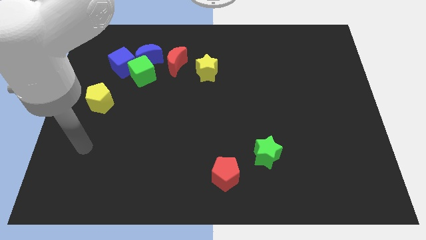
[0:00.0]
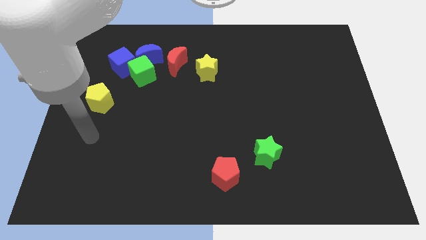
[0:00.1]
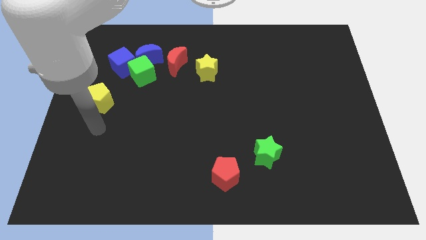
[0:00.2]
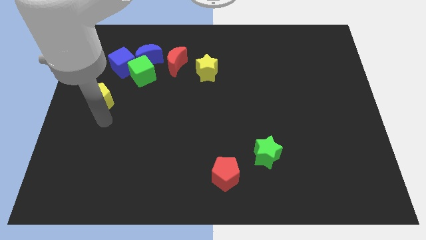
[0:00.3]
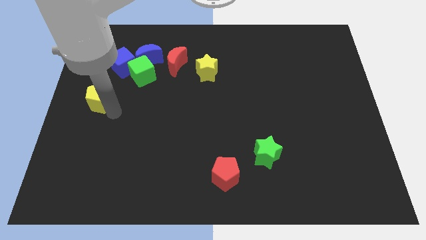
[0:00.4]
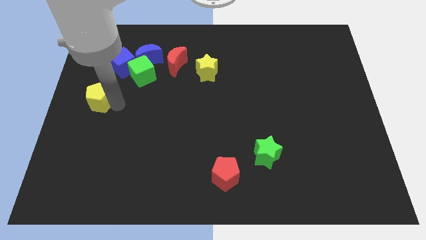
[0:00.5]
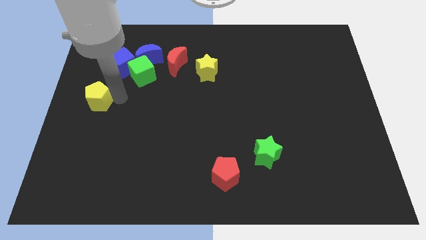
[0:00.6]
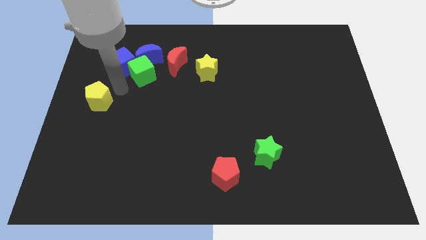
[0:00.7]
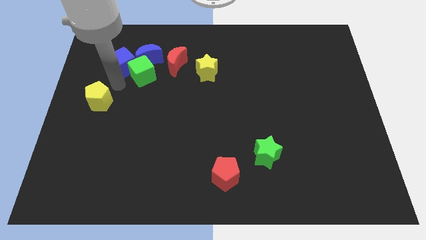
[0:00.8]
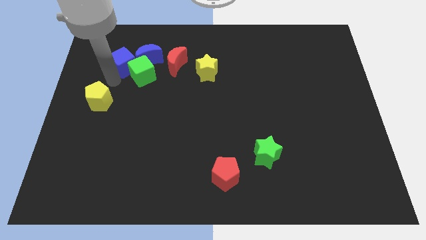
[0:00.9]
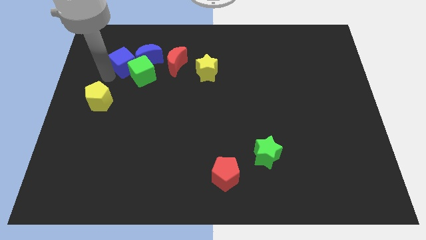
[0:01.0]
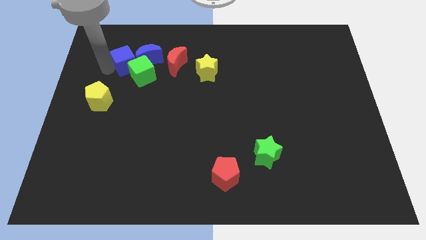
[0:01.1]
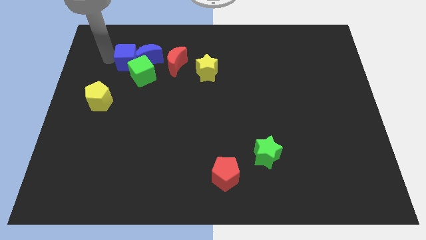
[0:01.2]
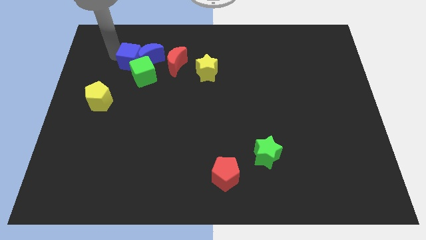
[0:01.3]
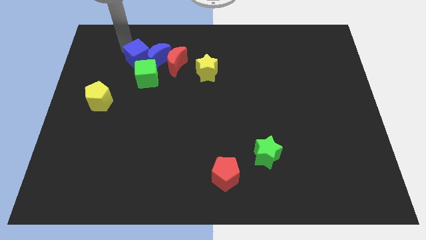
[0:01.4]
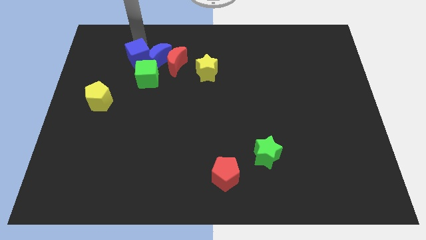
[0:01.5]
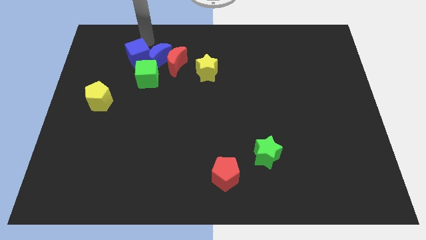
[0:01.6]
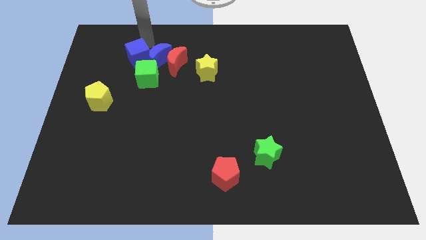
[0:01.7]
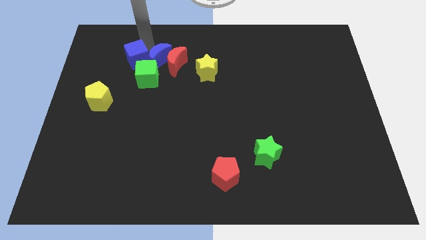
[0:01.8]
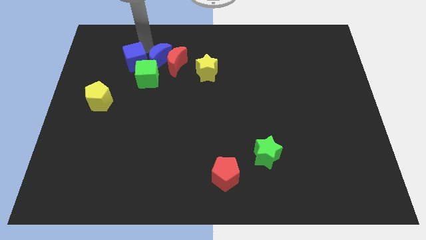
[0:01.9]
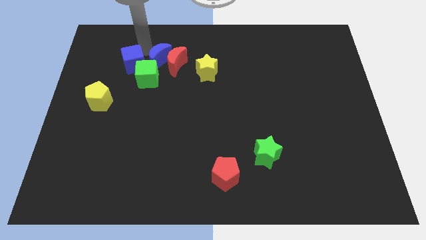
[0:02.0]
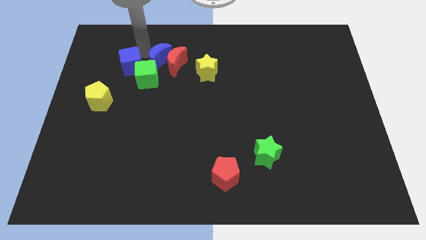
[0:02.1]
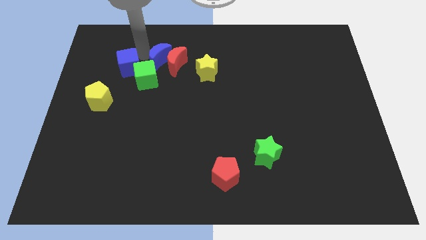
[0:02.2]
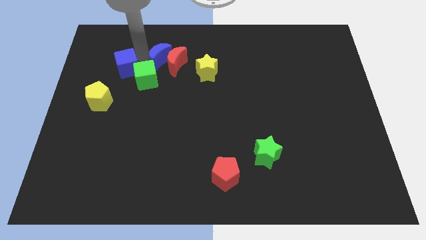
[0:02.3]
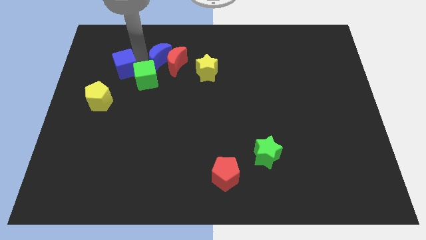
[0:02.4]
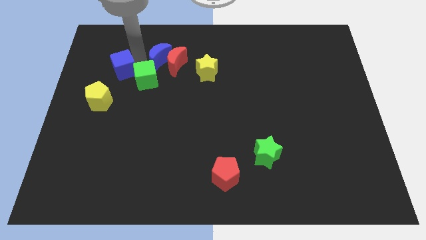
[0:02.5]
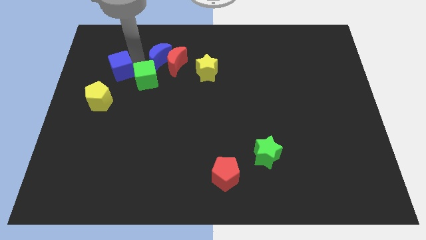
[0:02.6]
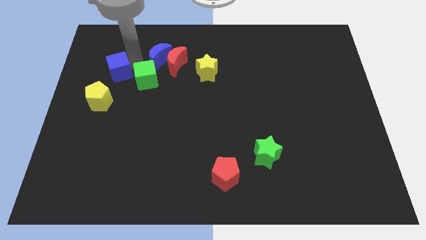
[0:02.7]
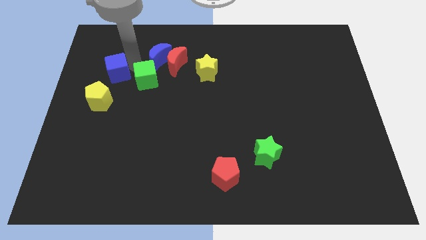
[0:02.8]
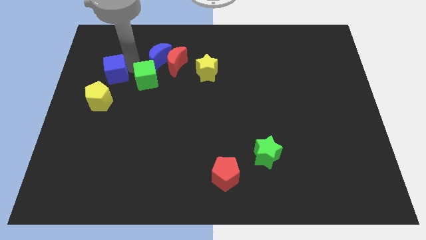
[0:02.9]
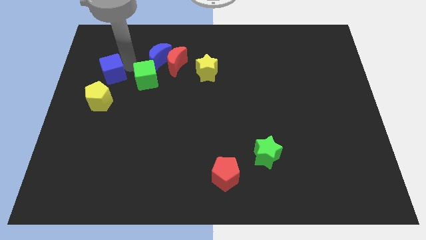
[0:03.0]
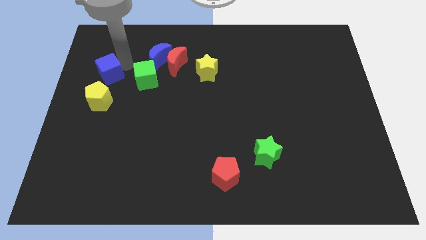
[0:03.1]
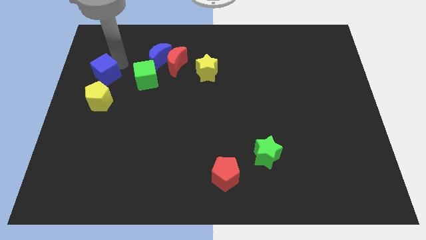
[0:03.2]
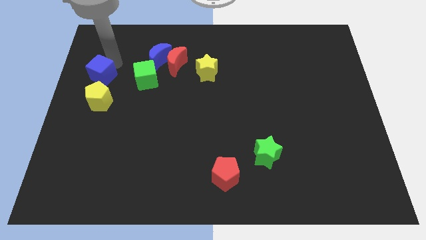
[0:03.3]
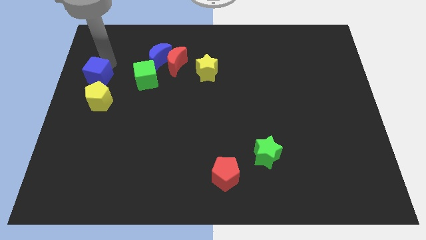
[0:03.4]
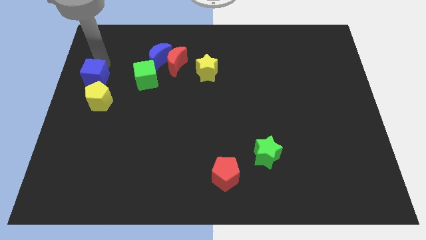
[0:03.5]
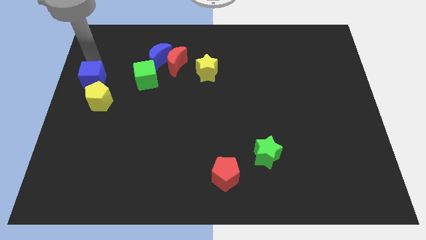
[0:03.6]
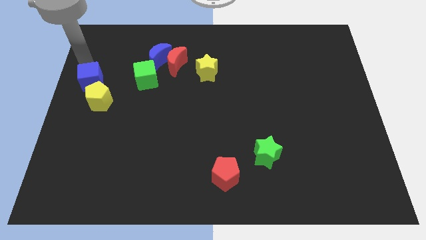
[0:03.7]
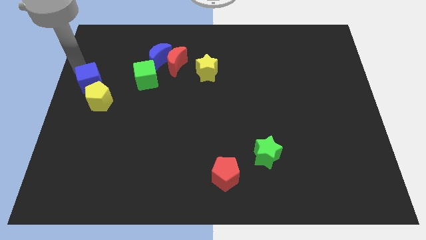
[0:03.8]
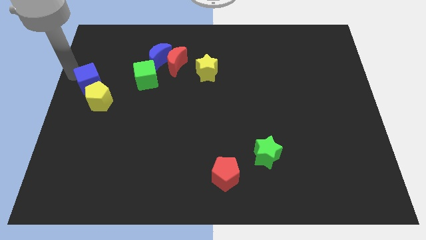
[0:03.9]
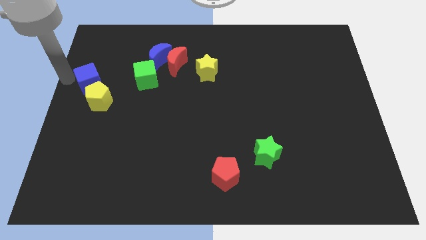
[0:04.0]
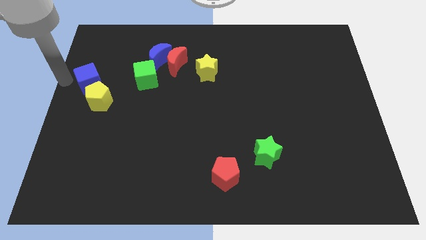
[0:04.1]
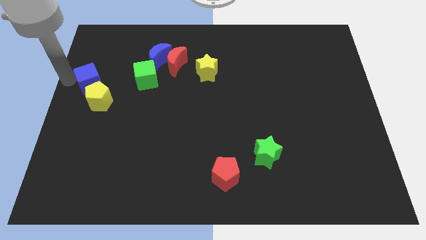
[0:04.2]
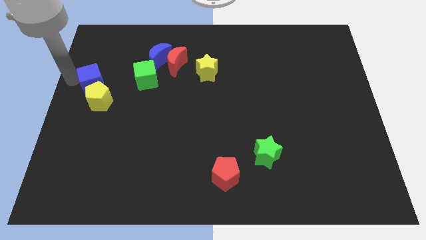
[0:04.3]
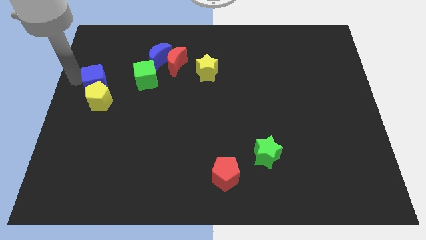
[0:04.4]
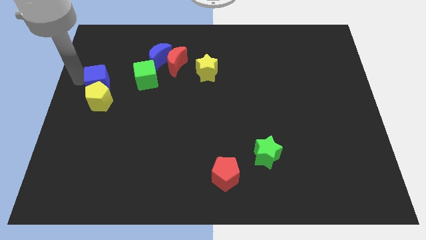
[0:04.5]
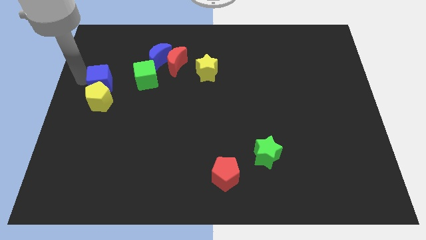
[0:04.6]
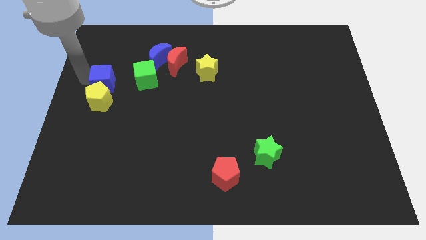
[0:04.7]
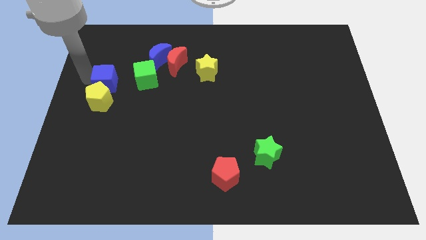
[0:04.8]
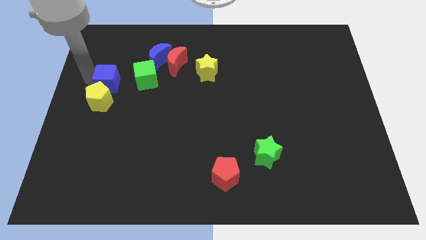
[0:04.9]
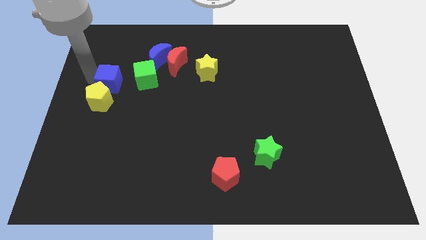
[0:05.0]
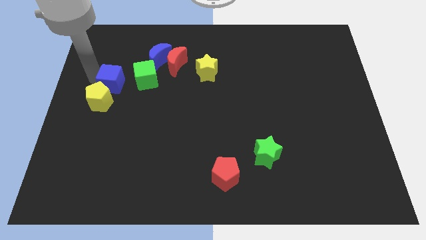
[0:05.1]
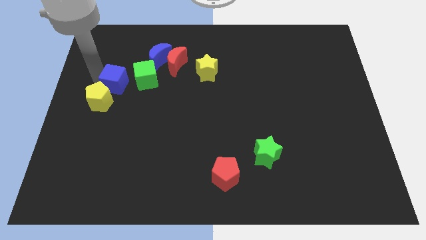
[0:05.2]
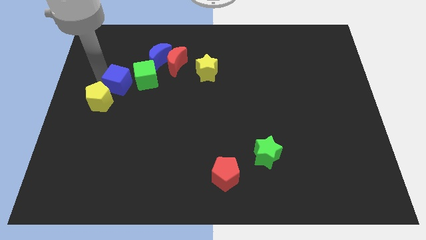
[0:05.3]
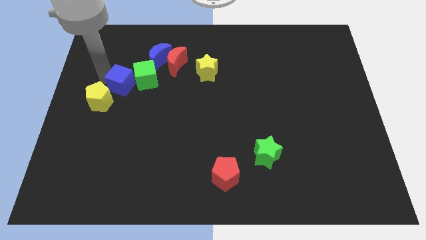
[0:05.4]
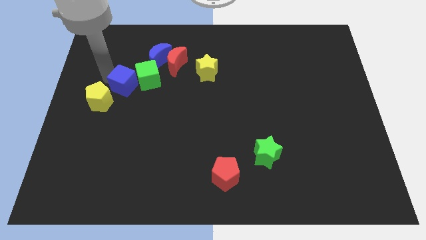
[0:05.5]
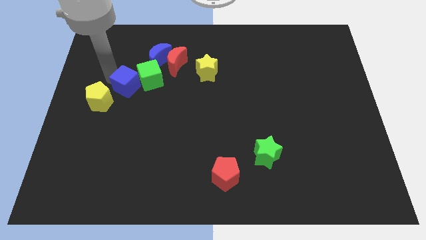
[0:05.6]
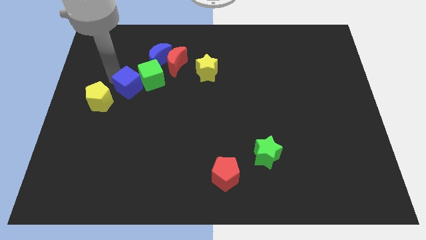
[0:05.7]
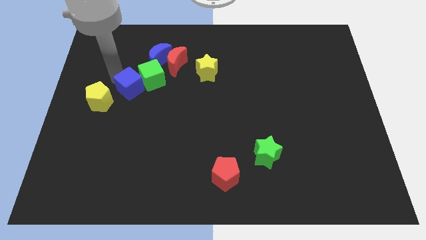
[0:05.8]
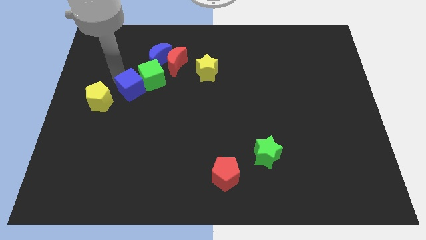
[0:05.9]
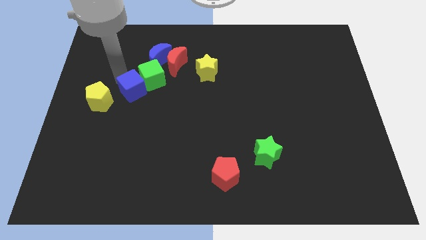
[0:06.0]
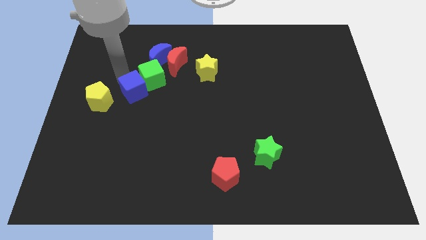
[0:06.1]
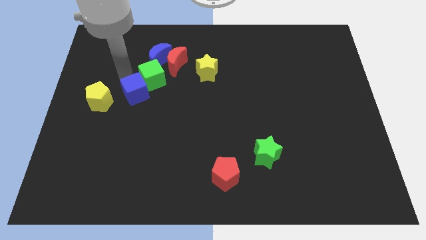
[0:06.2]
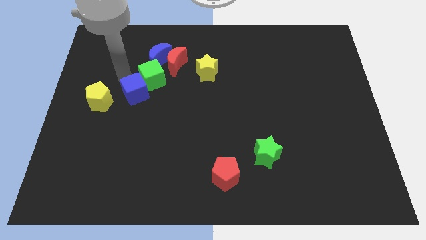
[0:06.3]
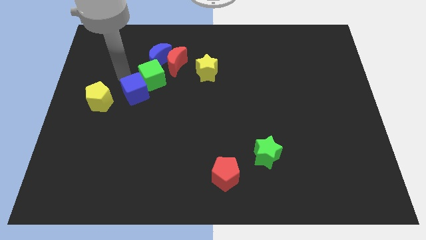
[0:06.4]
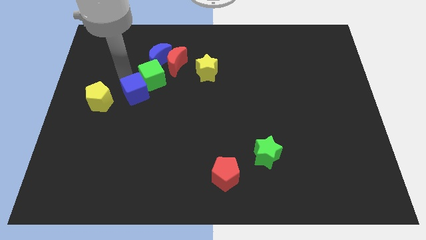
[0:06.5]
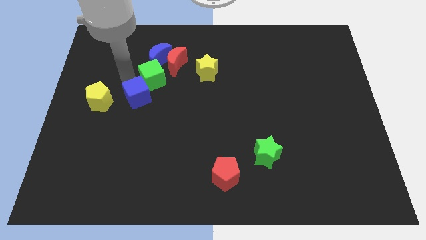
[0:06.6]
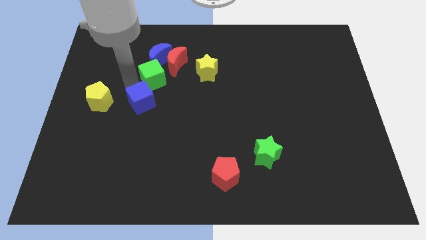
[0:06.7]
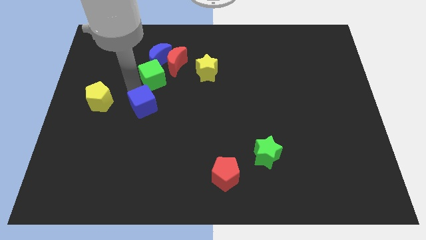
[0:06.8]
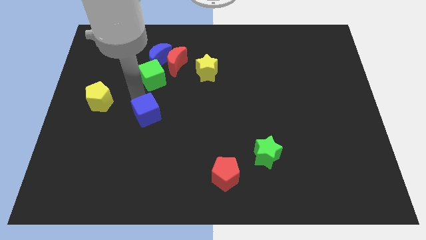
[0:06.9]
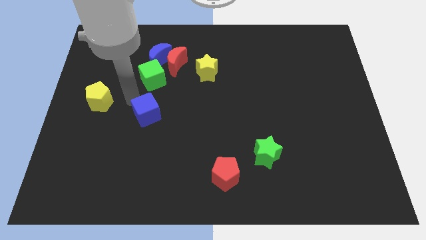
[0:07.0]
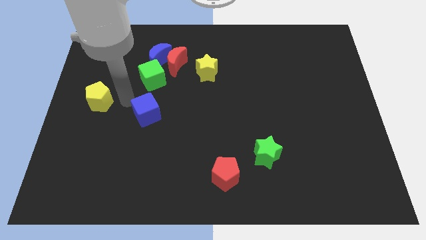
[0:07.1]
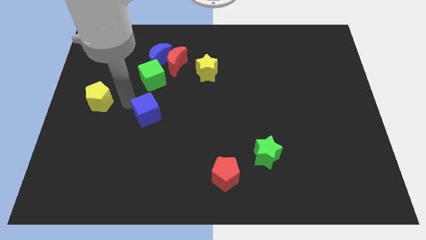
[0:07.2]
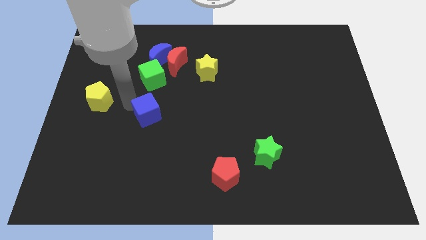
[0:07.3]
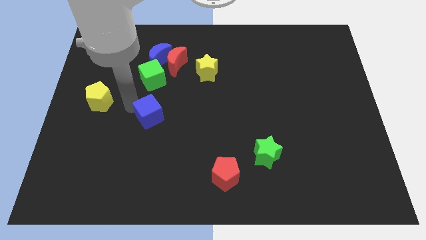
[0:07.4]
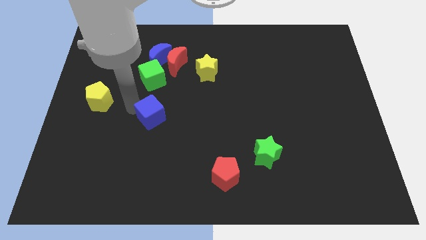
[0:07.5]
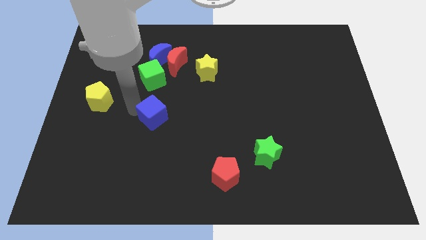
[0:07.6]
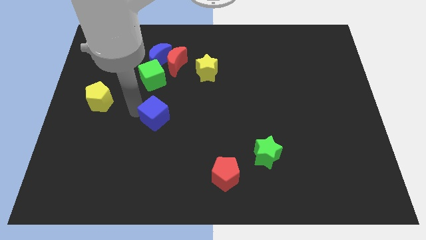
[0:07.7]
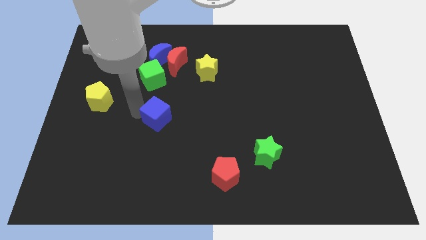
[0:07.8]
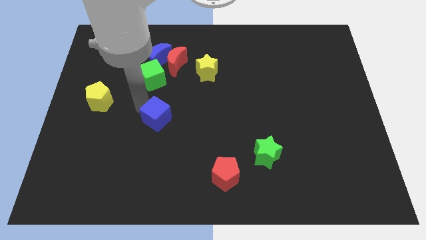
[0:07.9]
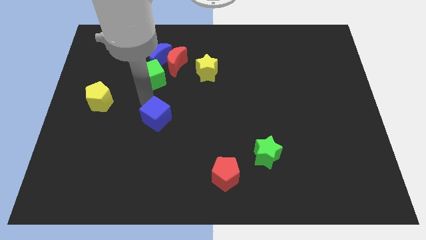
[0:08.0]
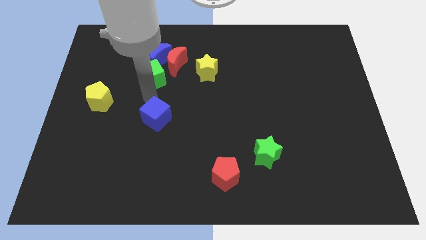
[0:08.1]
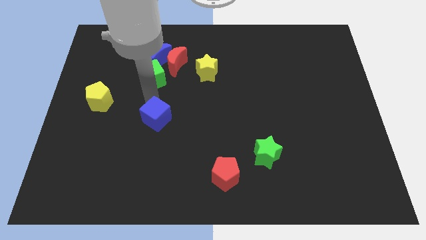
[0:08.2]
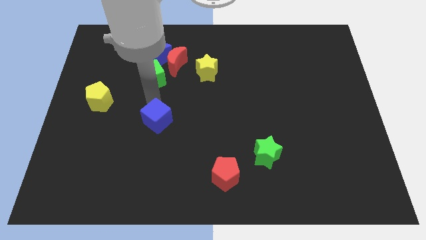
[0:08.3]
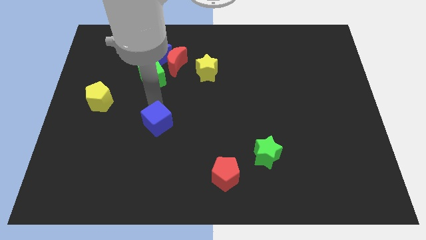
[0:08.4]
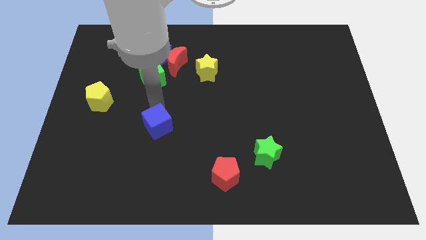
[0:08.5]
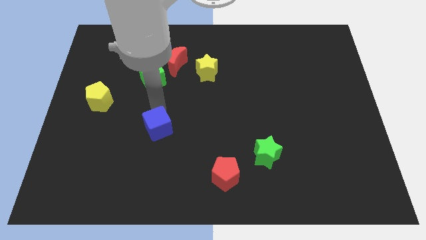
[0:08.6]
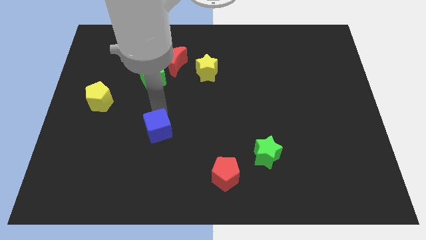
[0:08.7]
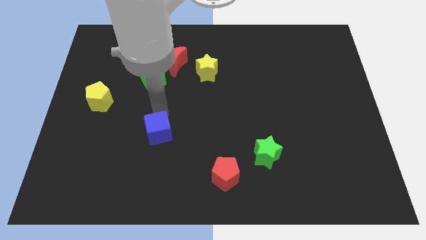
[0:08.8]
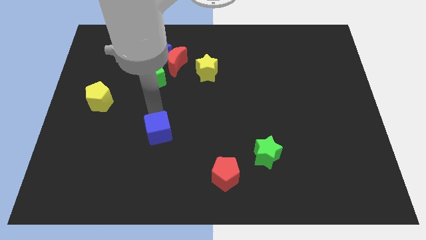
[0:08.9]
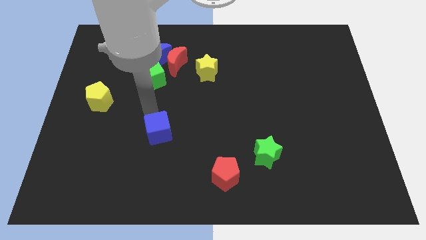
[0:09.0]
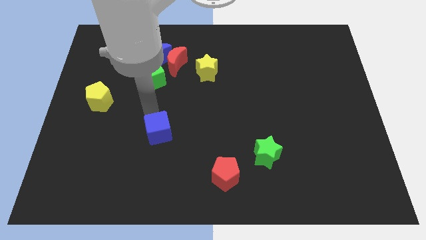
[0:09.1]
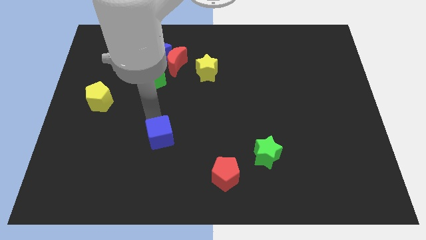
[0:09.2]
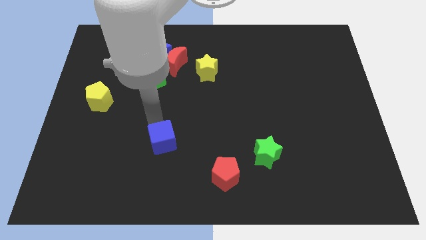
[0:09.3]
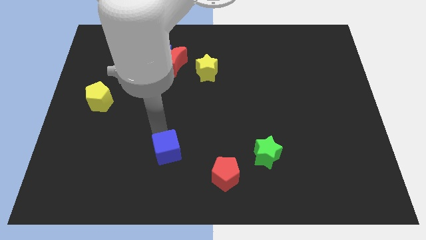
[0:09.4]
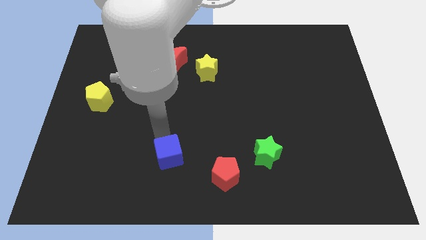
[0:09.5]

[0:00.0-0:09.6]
slide the blue cube to the left side of the red pentagon
